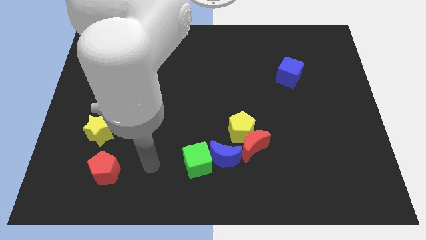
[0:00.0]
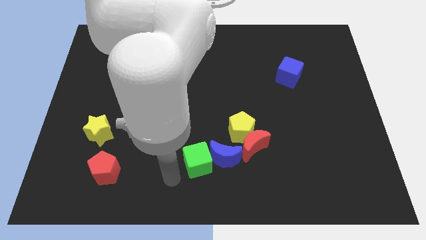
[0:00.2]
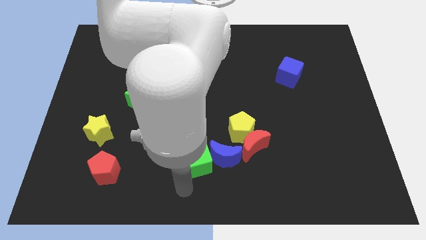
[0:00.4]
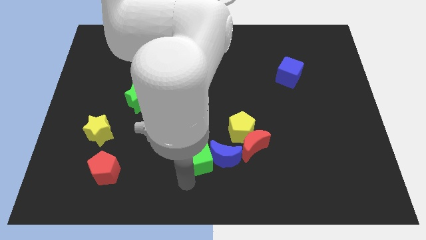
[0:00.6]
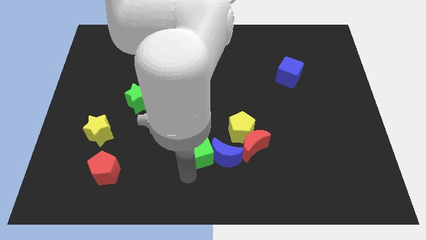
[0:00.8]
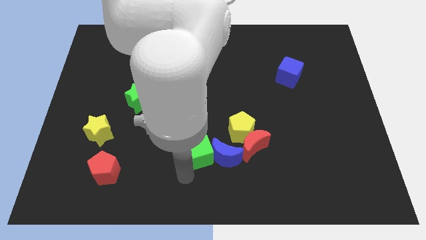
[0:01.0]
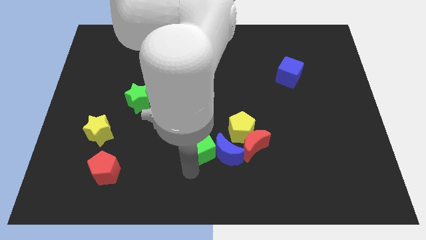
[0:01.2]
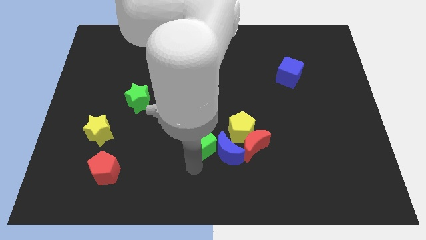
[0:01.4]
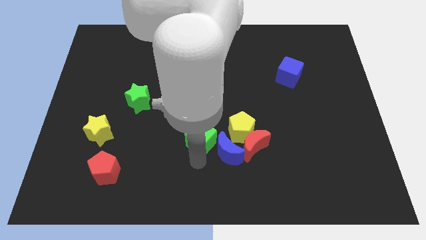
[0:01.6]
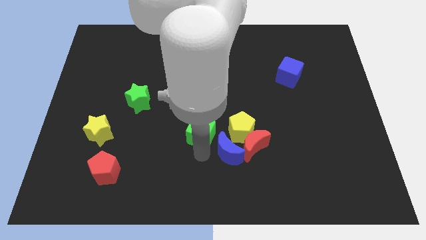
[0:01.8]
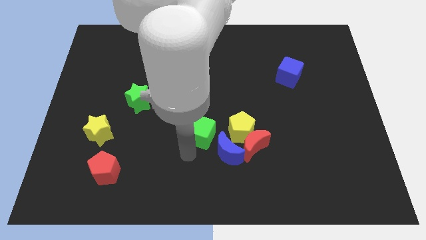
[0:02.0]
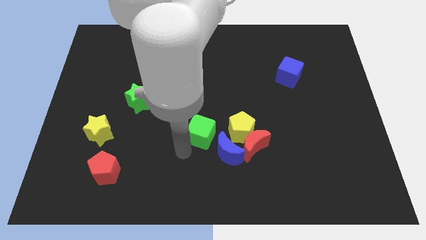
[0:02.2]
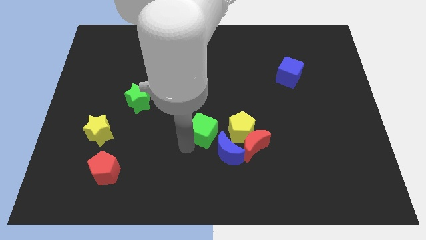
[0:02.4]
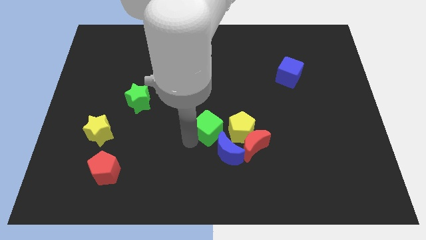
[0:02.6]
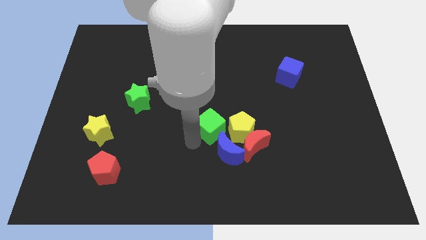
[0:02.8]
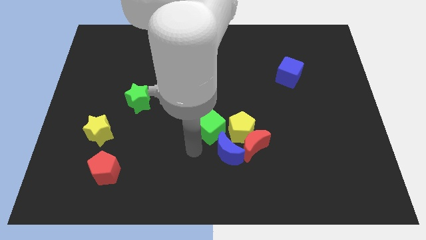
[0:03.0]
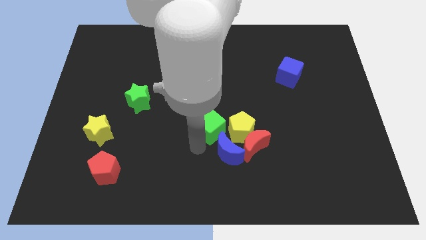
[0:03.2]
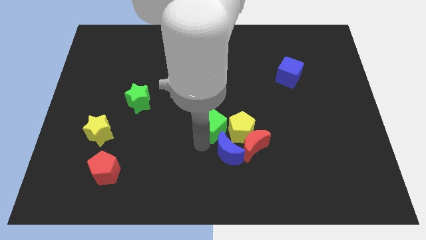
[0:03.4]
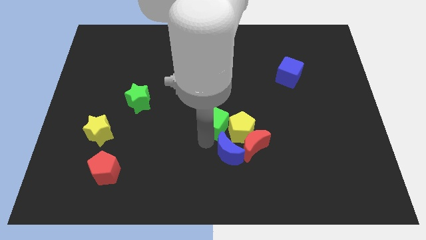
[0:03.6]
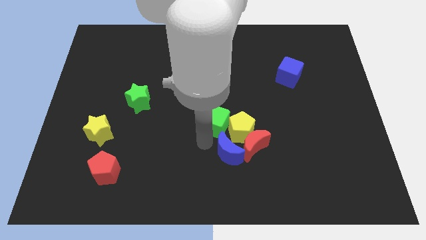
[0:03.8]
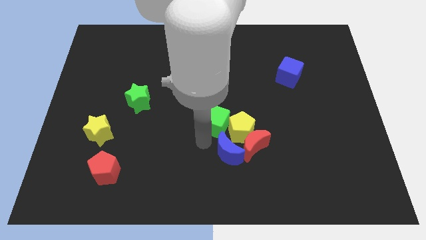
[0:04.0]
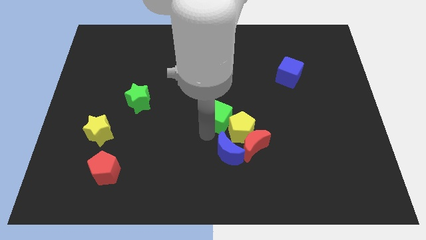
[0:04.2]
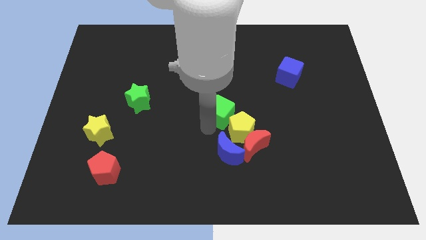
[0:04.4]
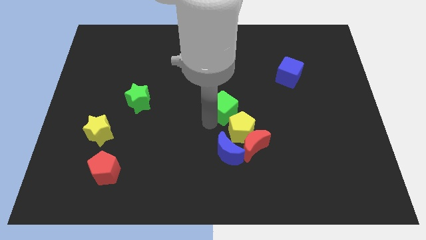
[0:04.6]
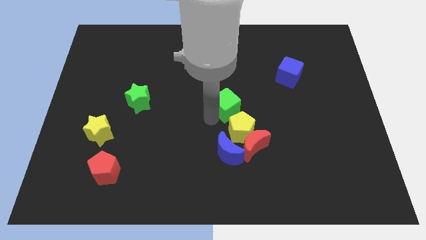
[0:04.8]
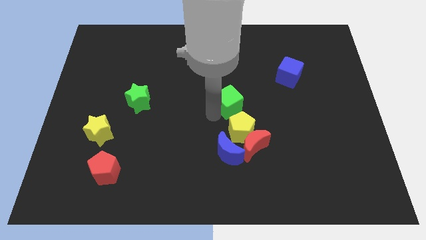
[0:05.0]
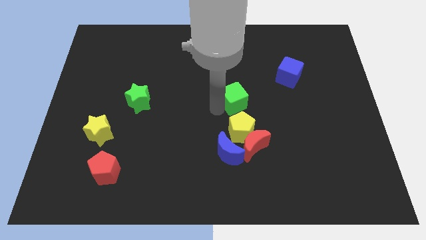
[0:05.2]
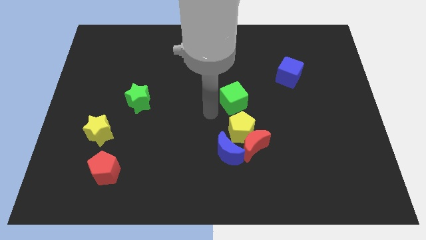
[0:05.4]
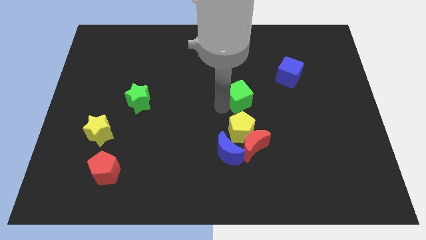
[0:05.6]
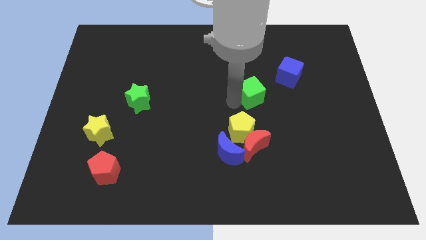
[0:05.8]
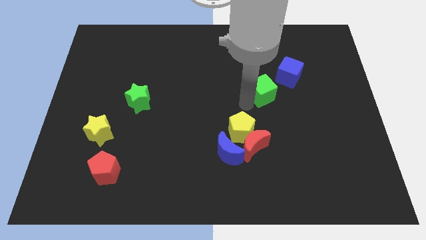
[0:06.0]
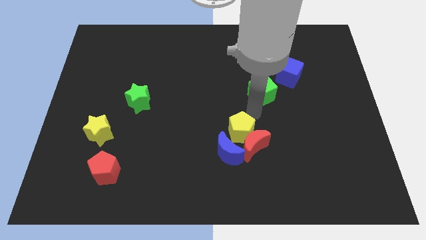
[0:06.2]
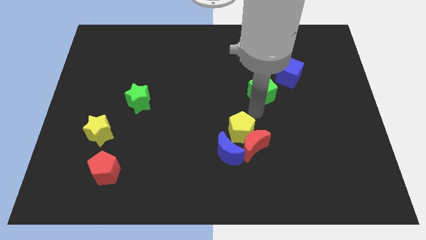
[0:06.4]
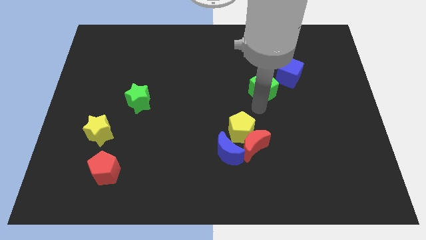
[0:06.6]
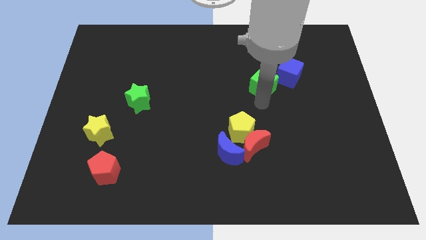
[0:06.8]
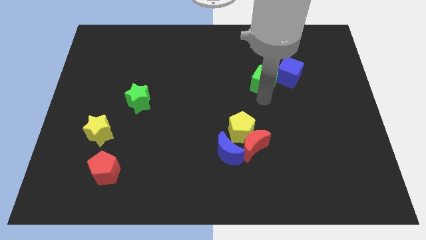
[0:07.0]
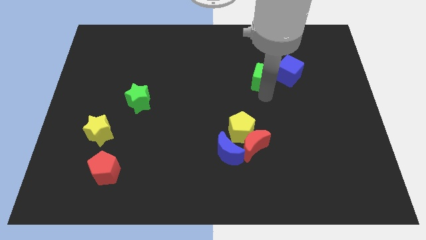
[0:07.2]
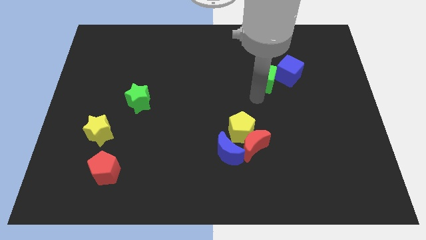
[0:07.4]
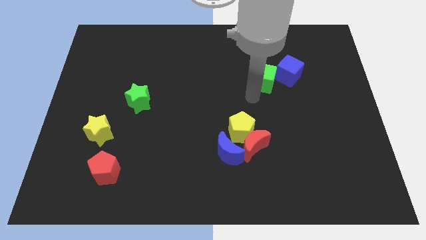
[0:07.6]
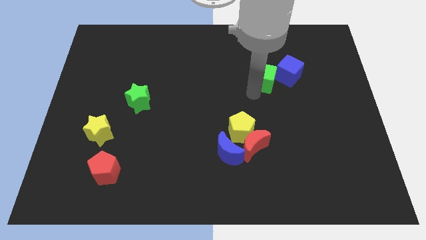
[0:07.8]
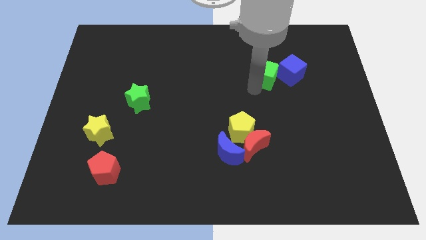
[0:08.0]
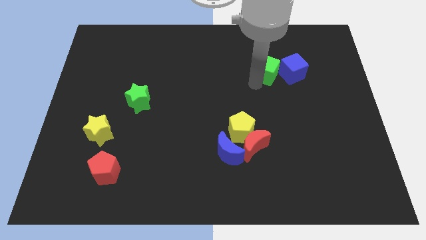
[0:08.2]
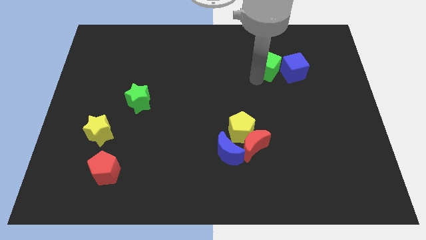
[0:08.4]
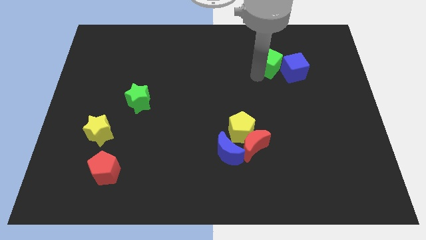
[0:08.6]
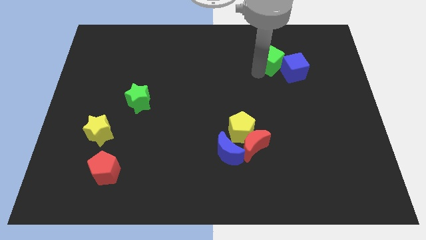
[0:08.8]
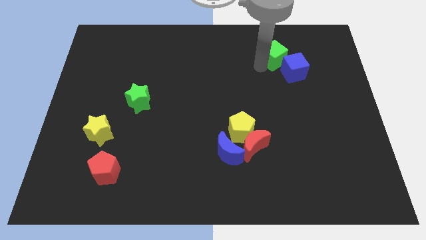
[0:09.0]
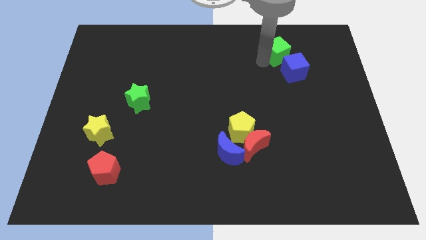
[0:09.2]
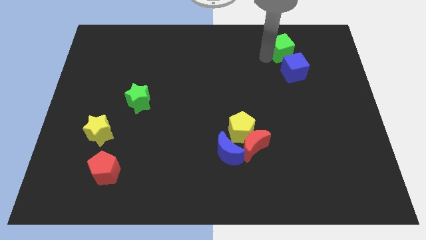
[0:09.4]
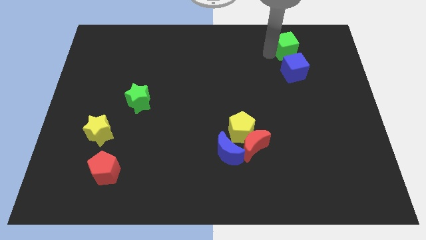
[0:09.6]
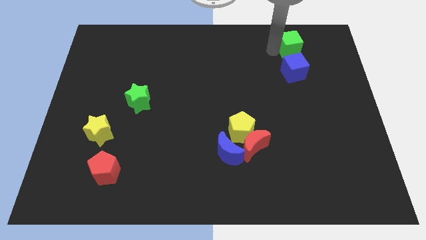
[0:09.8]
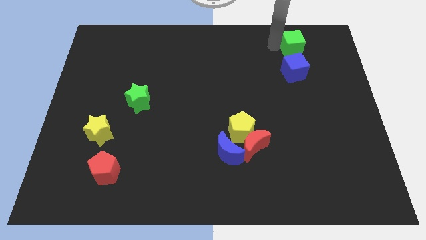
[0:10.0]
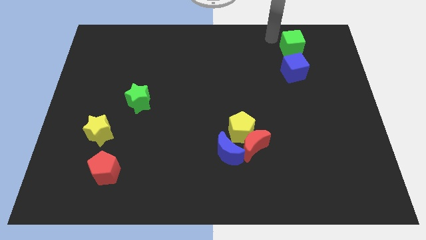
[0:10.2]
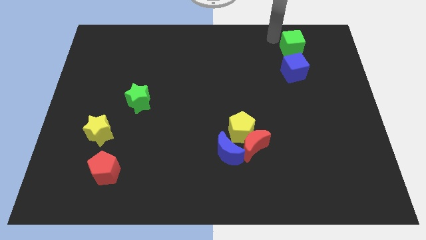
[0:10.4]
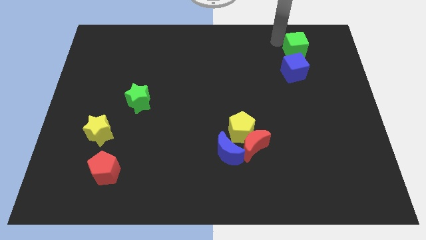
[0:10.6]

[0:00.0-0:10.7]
push the green cube to the top right side of the blue cube

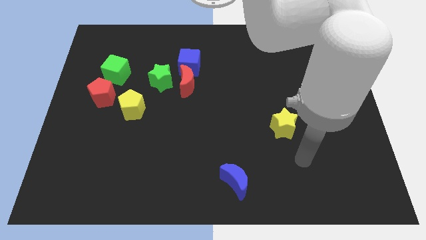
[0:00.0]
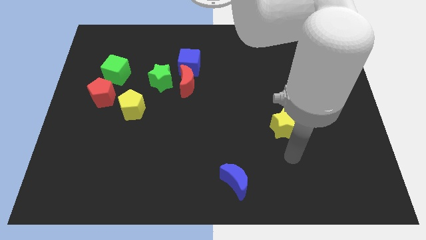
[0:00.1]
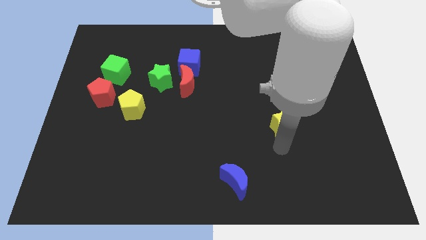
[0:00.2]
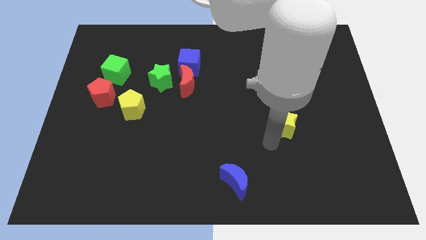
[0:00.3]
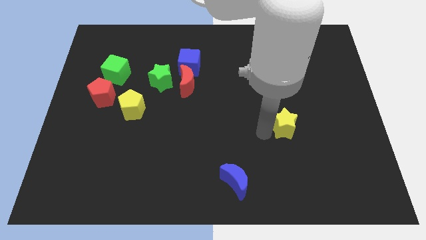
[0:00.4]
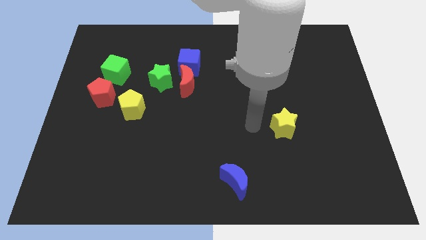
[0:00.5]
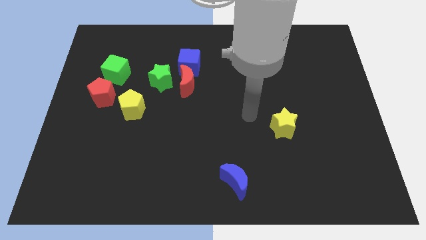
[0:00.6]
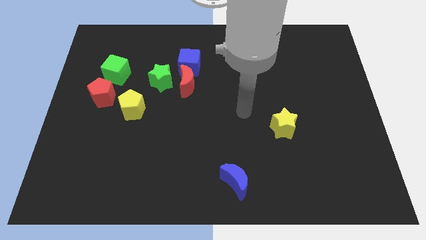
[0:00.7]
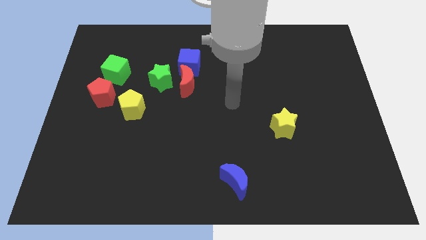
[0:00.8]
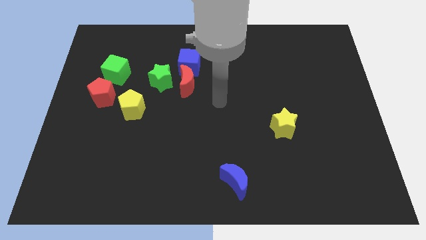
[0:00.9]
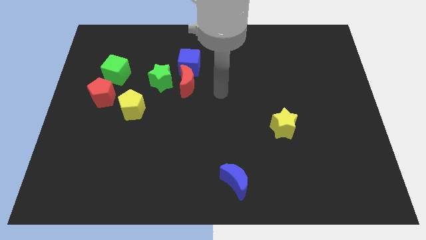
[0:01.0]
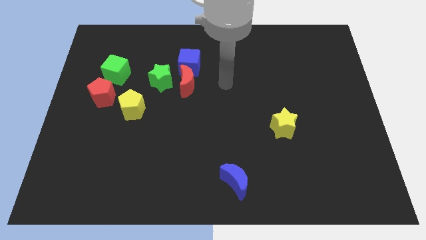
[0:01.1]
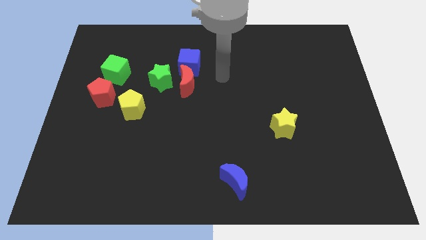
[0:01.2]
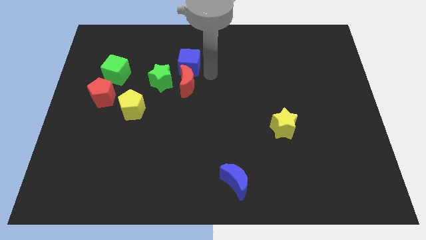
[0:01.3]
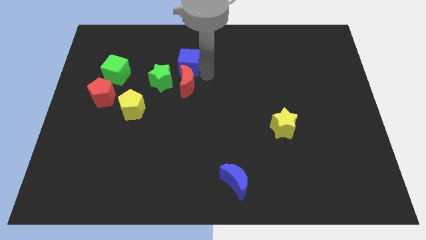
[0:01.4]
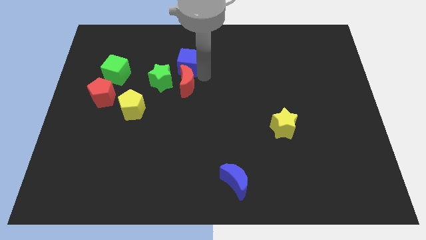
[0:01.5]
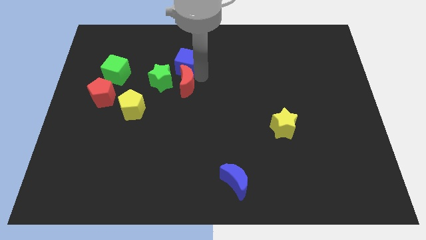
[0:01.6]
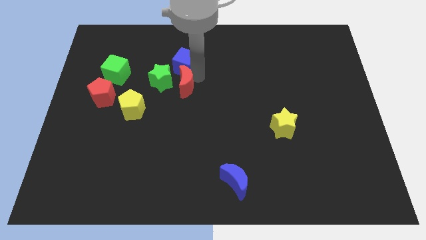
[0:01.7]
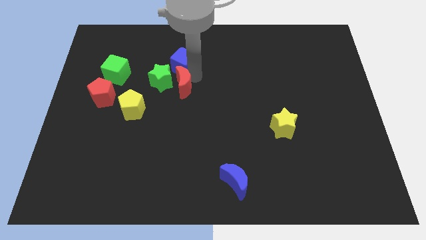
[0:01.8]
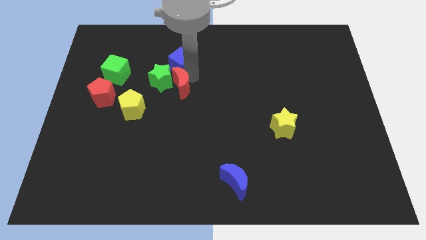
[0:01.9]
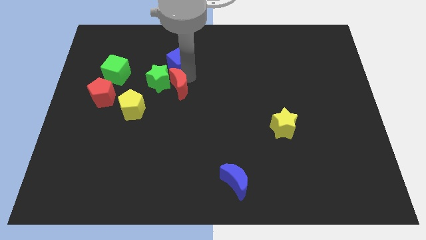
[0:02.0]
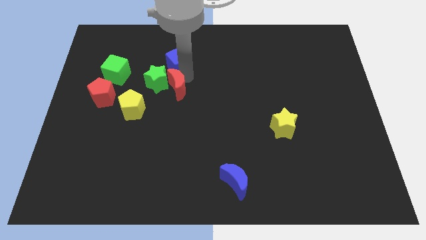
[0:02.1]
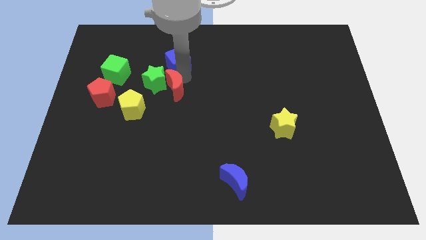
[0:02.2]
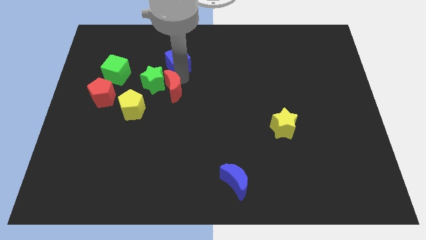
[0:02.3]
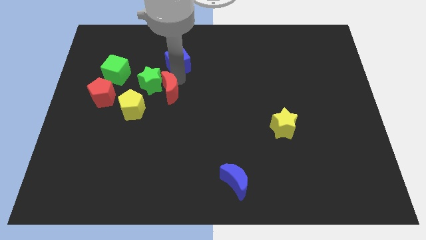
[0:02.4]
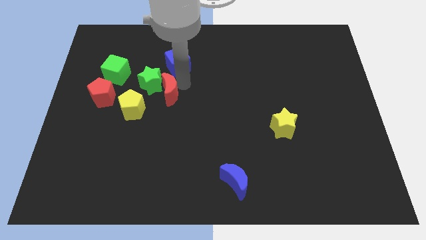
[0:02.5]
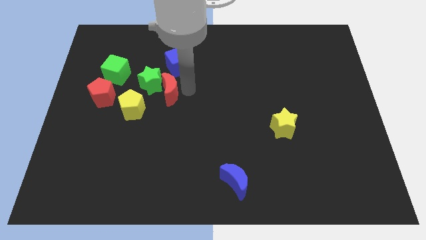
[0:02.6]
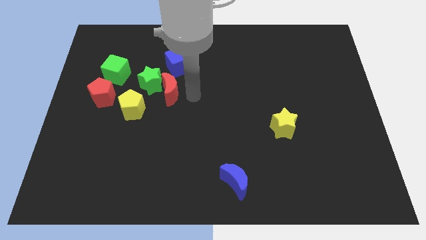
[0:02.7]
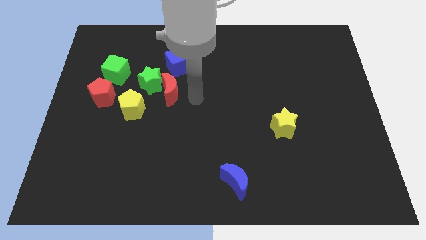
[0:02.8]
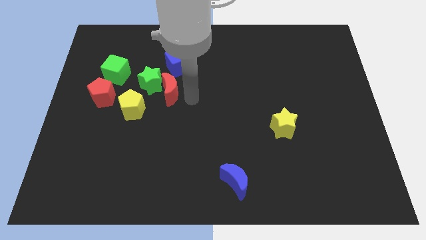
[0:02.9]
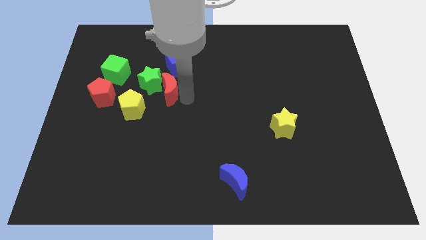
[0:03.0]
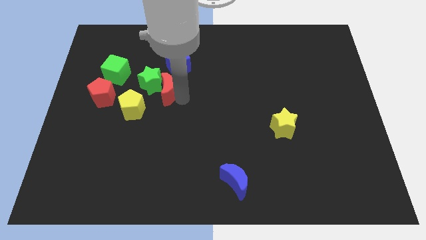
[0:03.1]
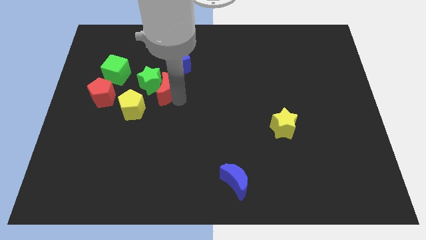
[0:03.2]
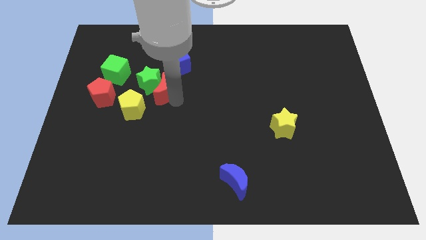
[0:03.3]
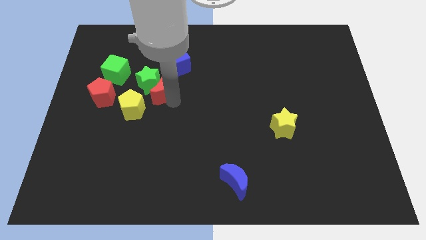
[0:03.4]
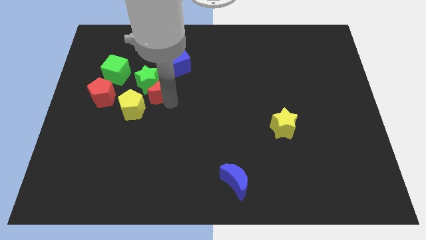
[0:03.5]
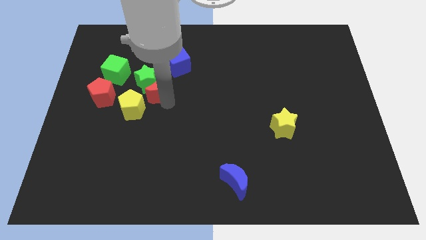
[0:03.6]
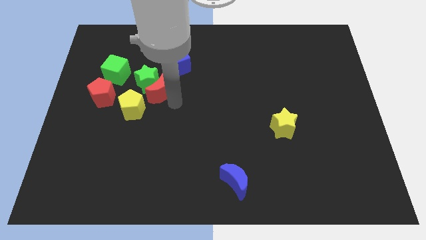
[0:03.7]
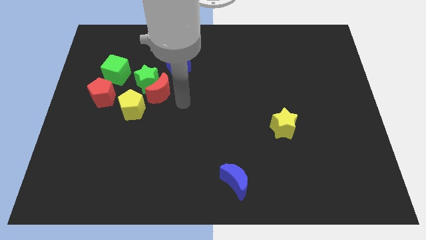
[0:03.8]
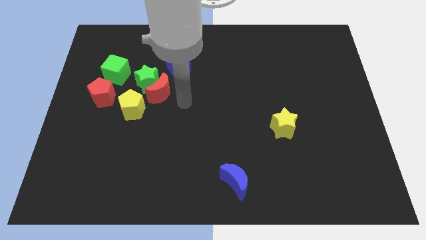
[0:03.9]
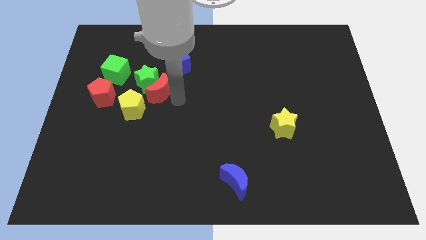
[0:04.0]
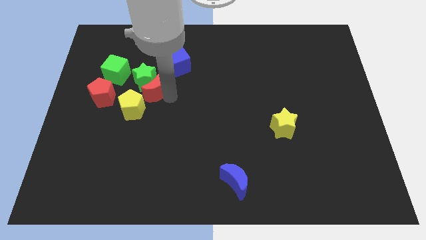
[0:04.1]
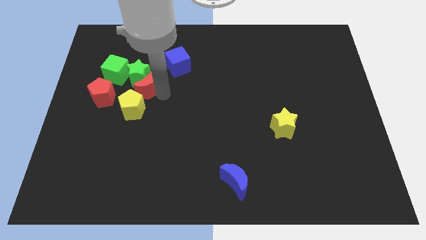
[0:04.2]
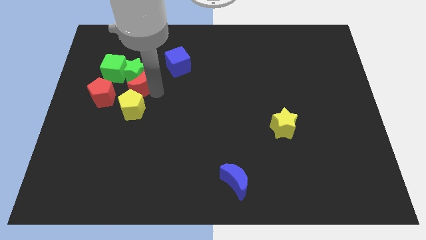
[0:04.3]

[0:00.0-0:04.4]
slide the red moon to the top right of the red pentagon
